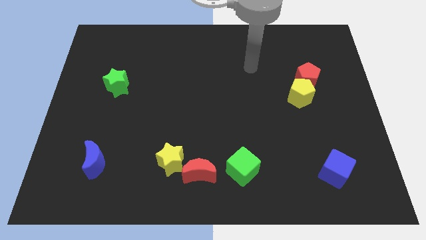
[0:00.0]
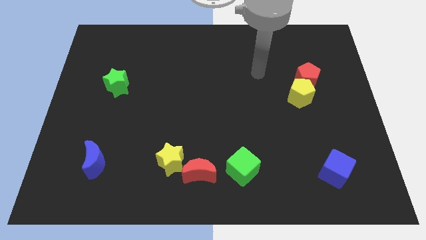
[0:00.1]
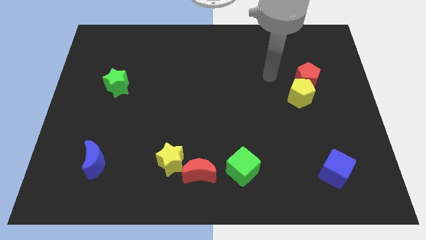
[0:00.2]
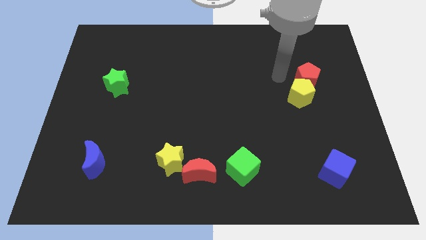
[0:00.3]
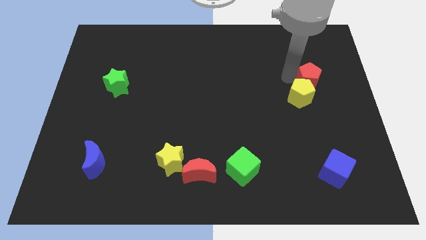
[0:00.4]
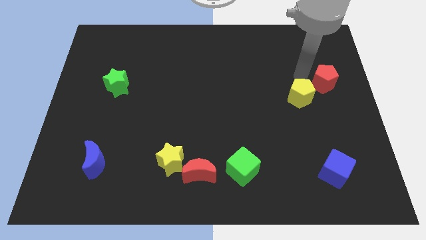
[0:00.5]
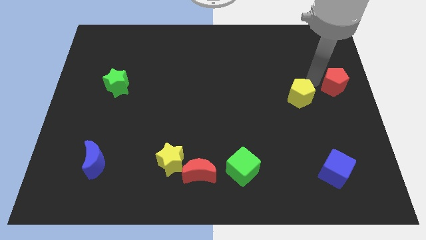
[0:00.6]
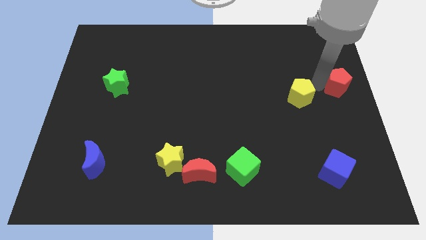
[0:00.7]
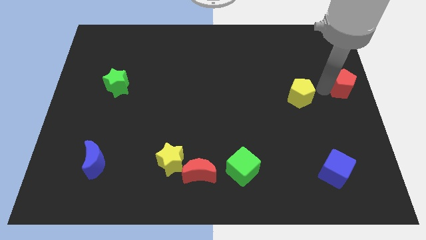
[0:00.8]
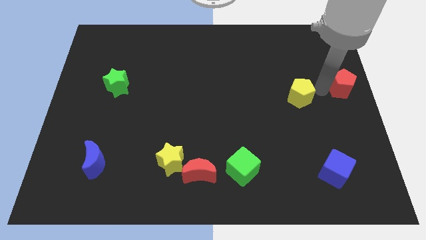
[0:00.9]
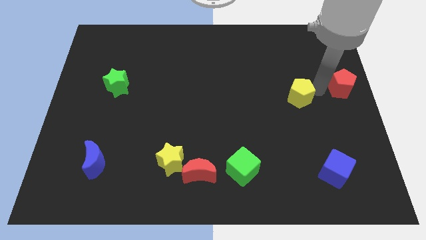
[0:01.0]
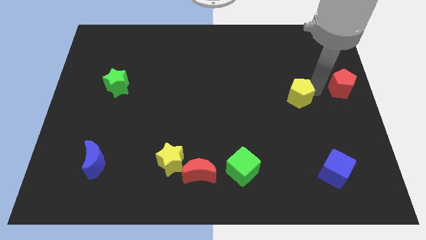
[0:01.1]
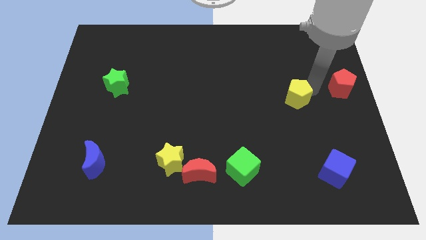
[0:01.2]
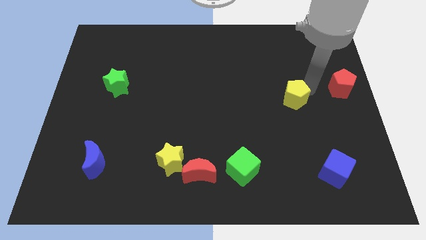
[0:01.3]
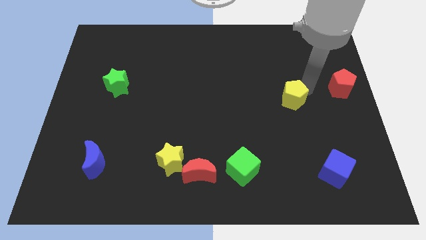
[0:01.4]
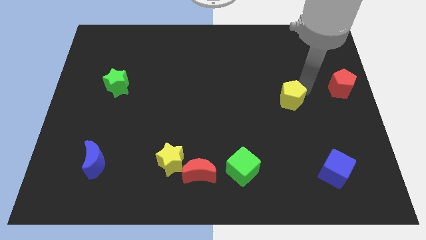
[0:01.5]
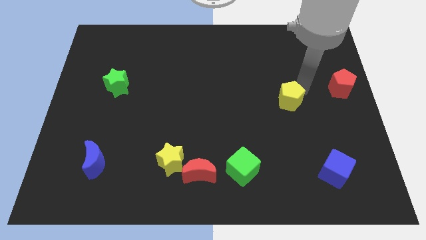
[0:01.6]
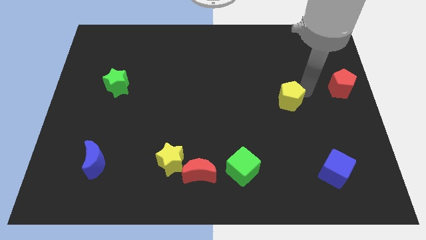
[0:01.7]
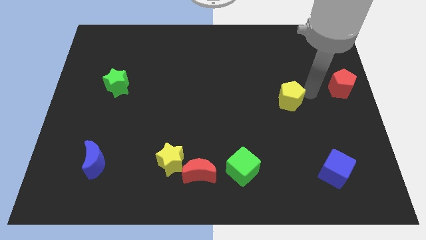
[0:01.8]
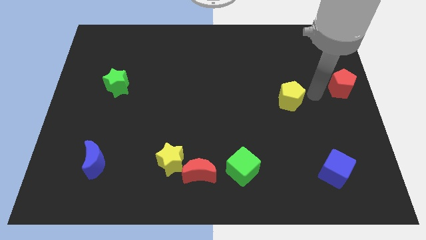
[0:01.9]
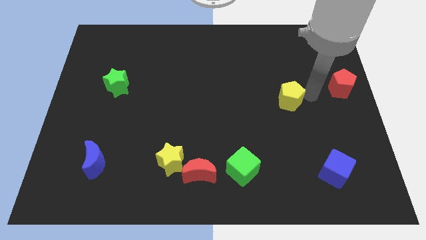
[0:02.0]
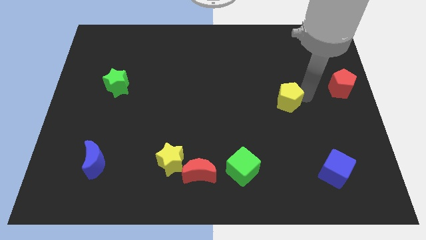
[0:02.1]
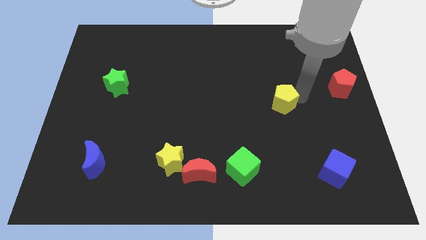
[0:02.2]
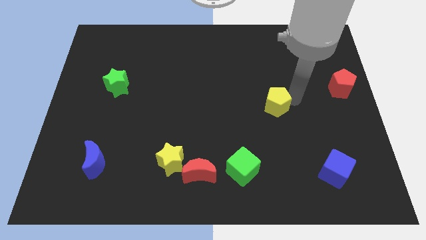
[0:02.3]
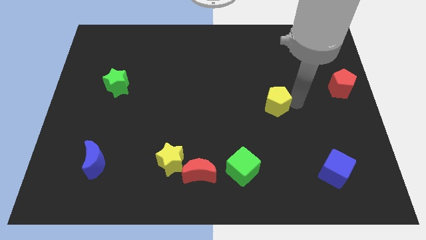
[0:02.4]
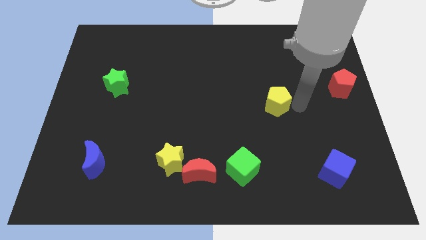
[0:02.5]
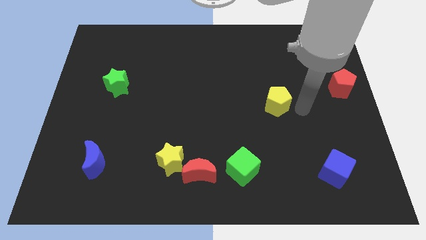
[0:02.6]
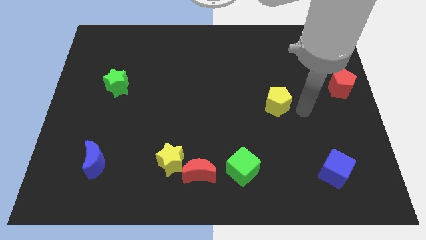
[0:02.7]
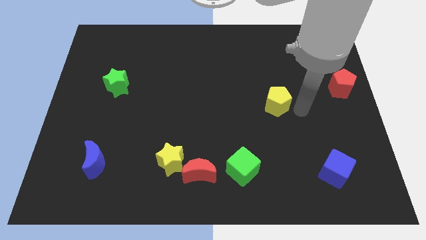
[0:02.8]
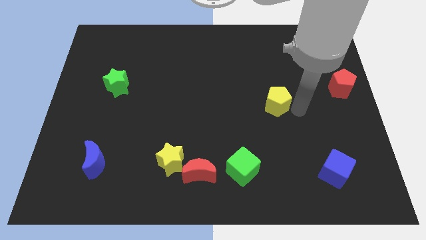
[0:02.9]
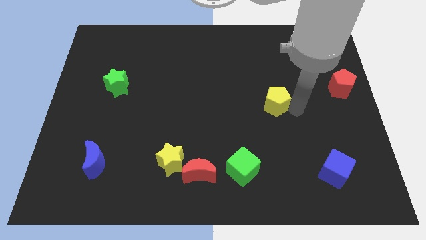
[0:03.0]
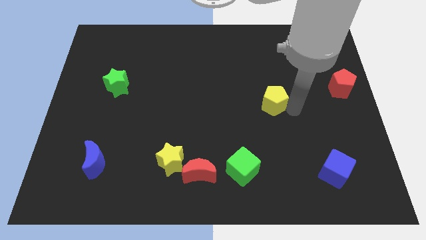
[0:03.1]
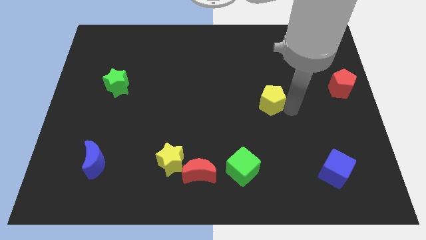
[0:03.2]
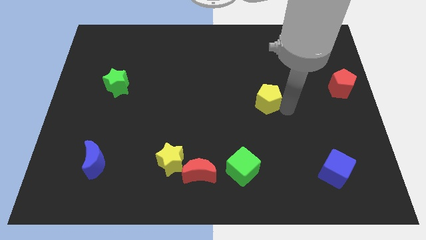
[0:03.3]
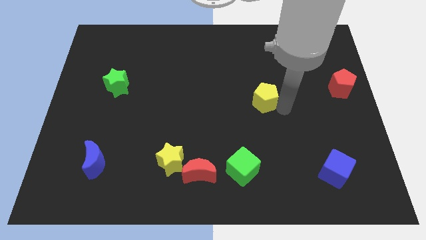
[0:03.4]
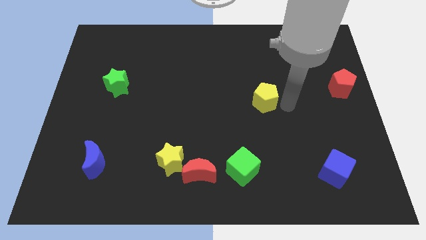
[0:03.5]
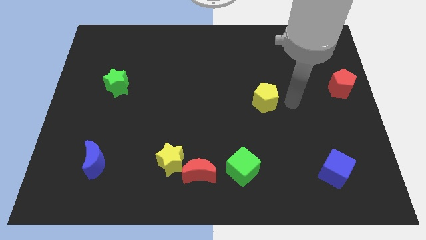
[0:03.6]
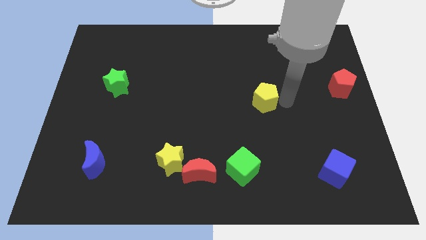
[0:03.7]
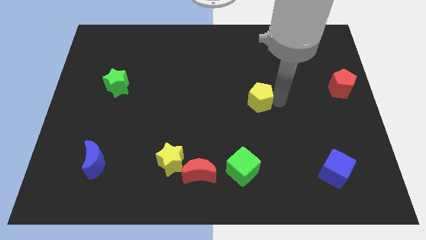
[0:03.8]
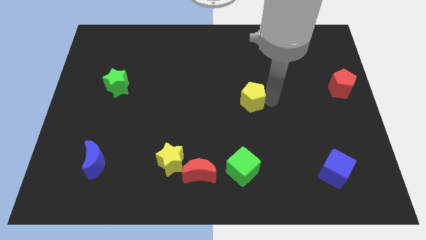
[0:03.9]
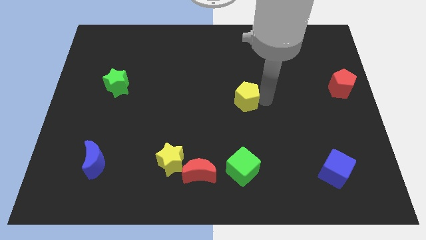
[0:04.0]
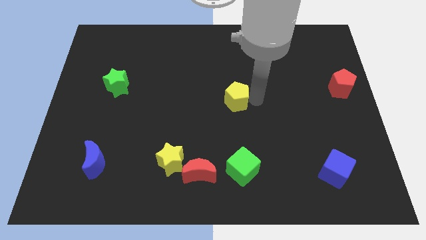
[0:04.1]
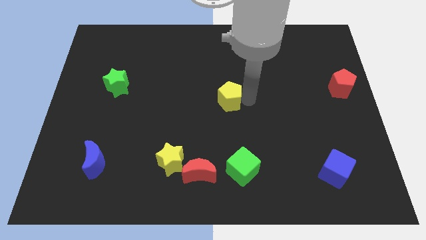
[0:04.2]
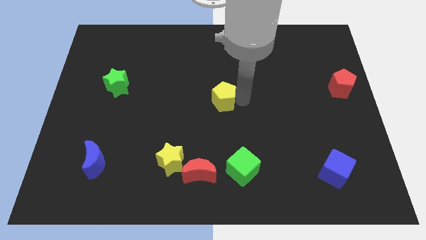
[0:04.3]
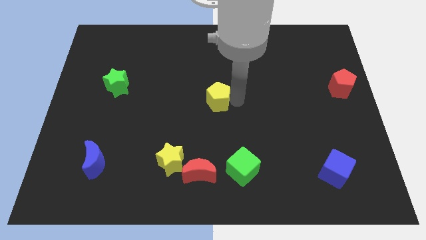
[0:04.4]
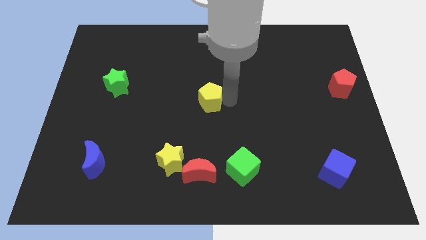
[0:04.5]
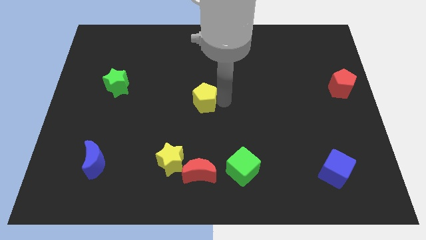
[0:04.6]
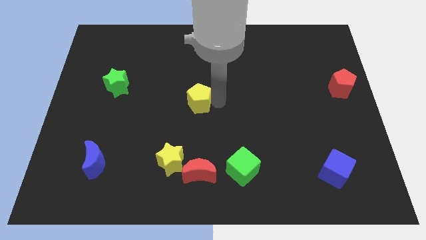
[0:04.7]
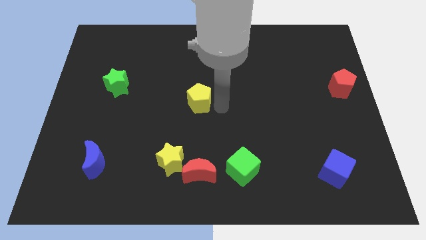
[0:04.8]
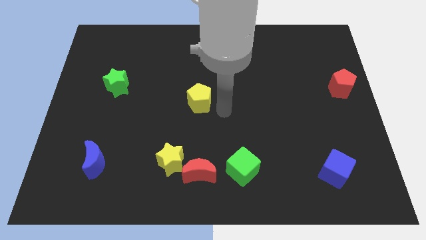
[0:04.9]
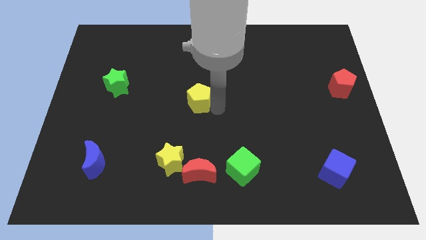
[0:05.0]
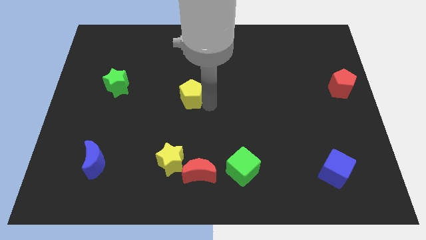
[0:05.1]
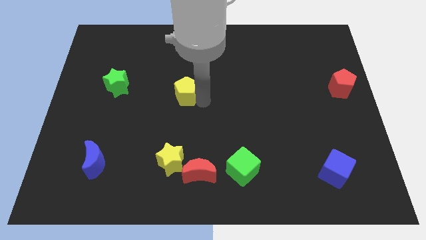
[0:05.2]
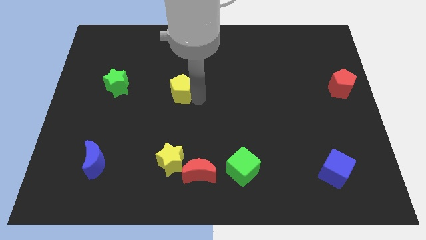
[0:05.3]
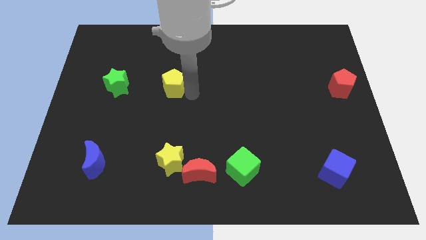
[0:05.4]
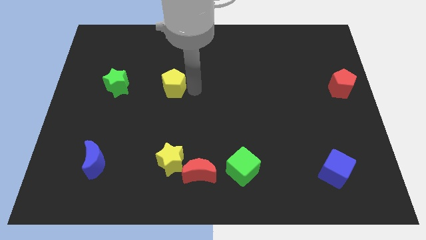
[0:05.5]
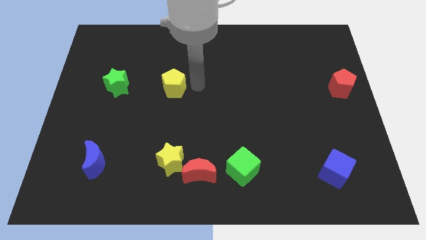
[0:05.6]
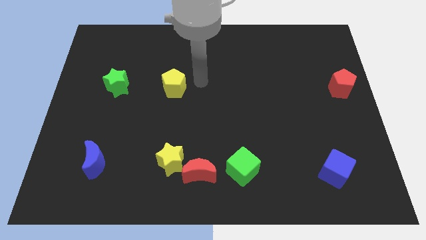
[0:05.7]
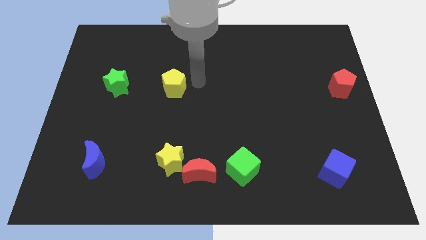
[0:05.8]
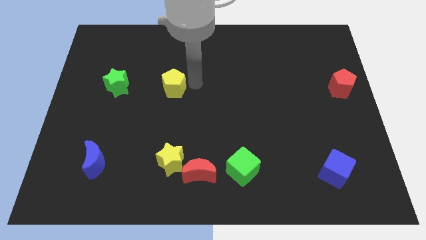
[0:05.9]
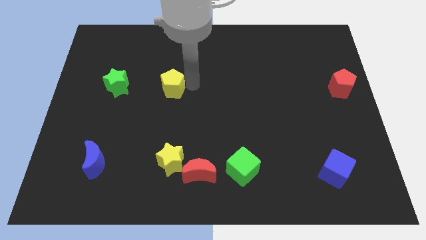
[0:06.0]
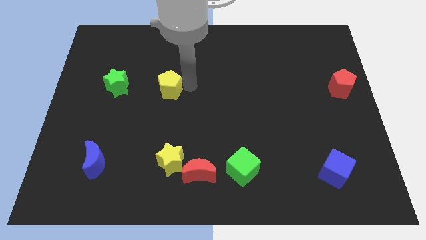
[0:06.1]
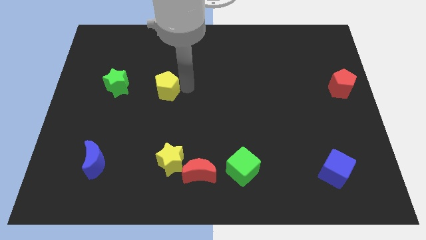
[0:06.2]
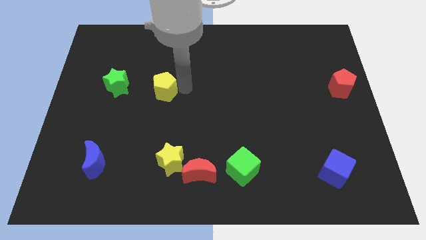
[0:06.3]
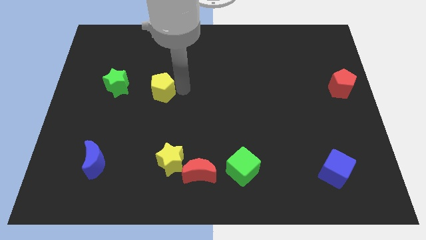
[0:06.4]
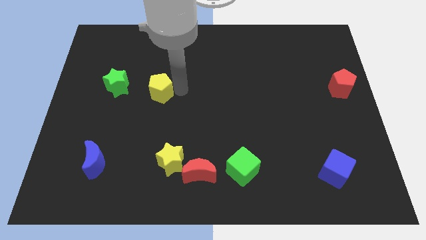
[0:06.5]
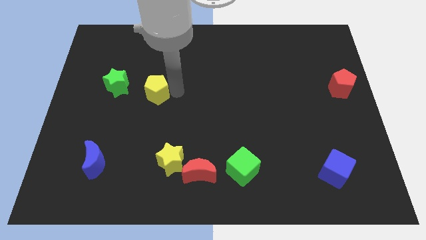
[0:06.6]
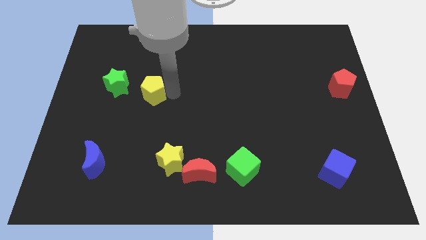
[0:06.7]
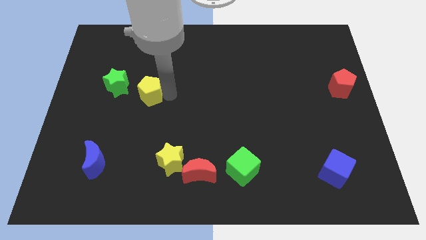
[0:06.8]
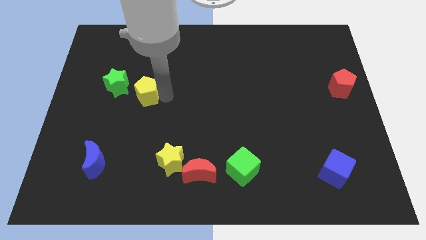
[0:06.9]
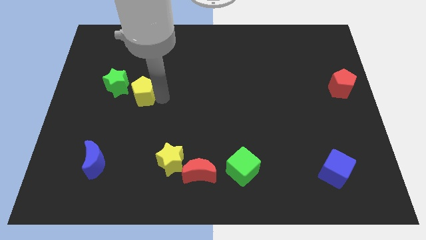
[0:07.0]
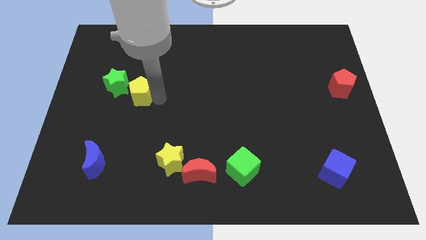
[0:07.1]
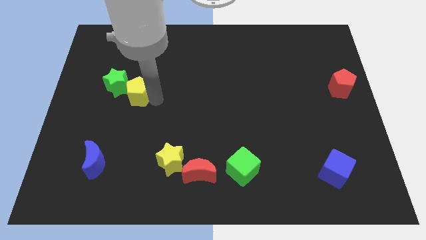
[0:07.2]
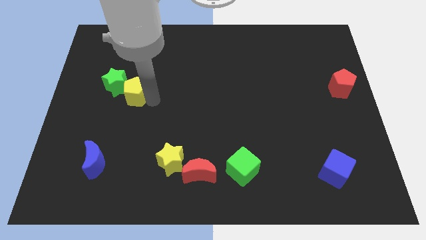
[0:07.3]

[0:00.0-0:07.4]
put the yellow pentagon towards the green star
